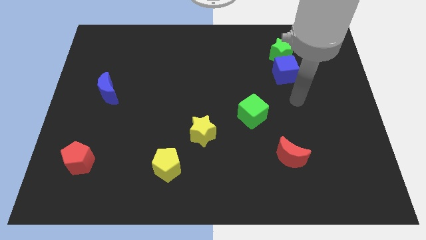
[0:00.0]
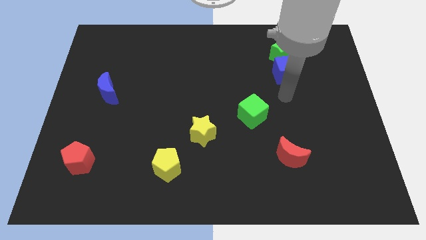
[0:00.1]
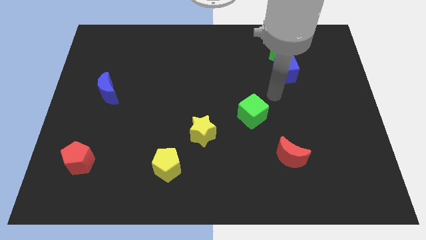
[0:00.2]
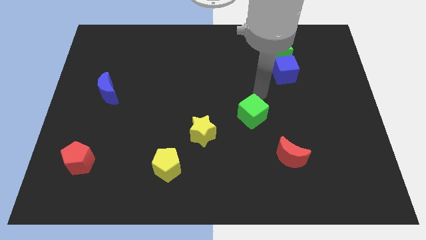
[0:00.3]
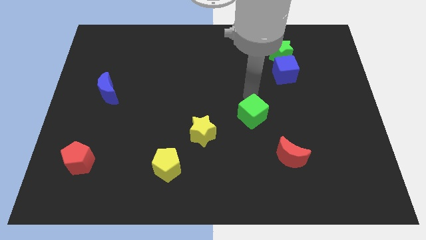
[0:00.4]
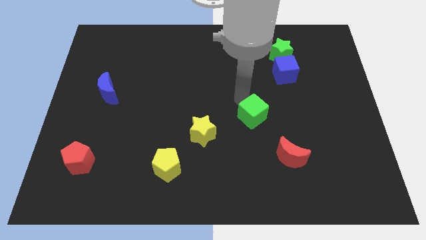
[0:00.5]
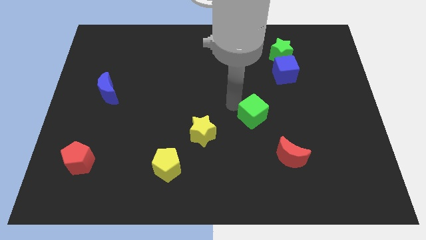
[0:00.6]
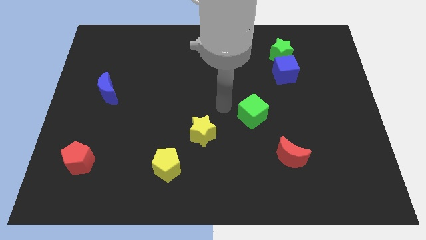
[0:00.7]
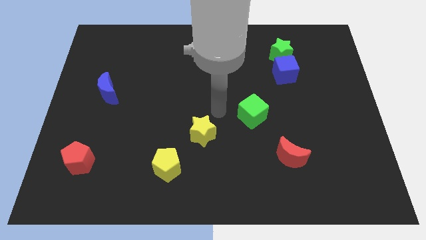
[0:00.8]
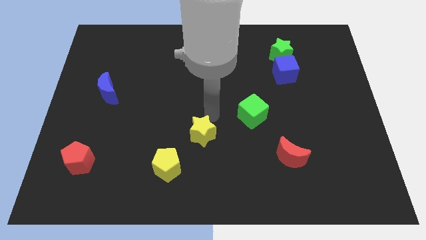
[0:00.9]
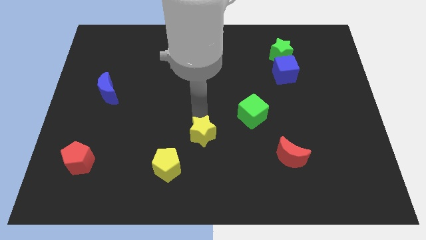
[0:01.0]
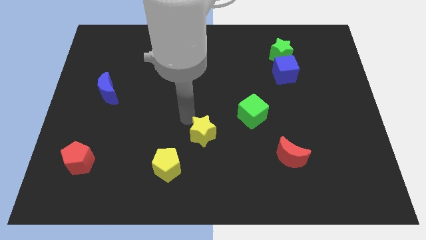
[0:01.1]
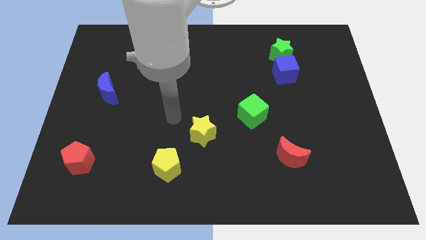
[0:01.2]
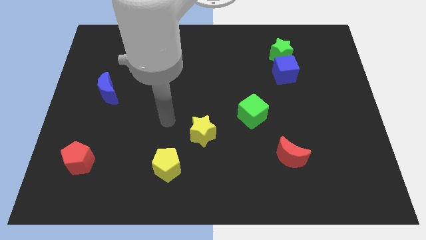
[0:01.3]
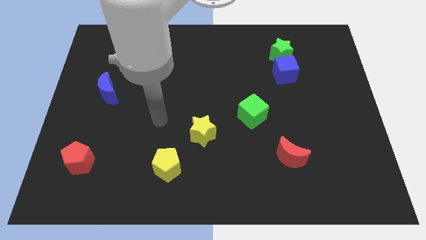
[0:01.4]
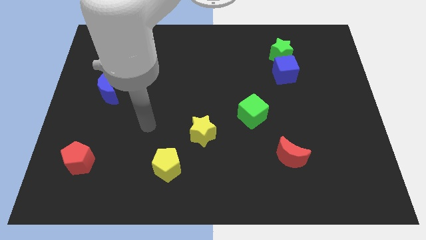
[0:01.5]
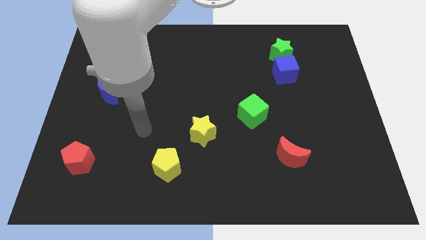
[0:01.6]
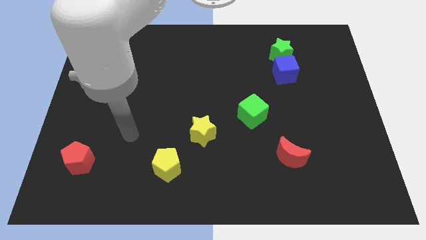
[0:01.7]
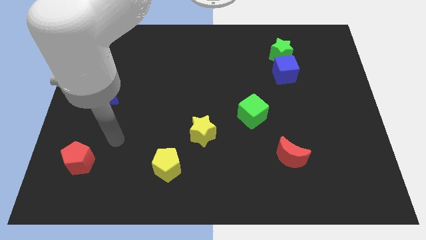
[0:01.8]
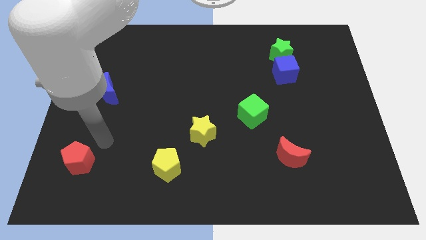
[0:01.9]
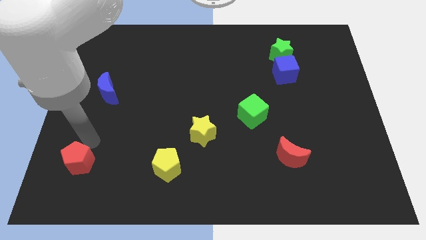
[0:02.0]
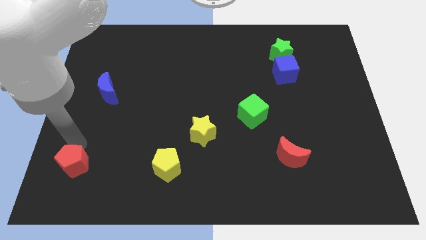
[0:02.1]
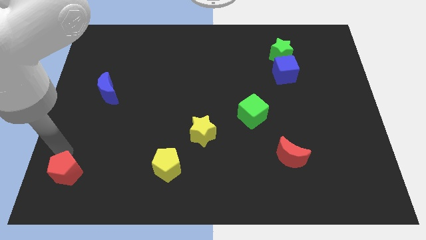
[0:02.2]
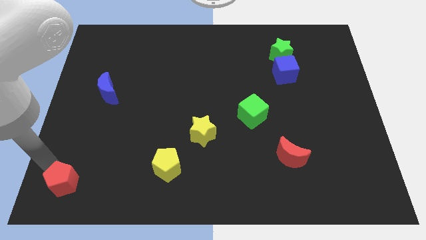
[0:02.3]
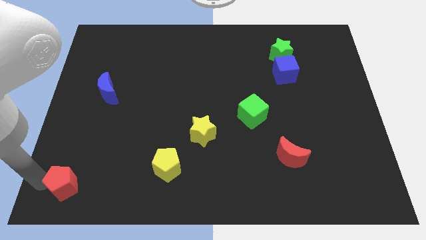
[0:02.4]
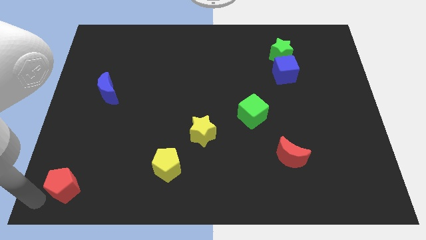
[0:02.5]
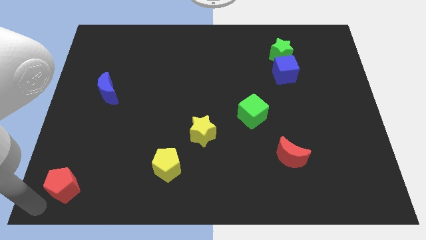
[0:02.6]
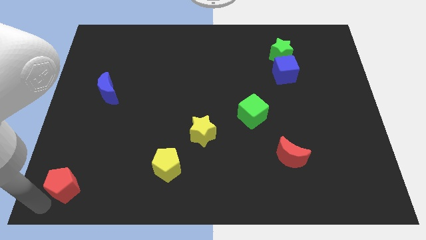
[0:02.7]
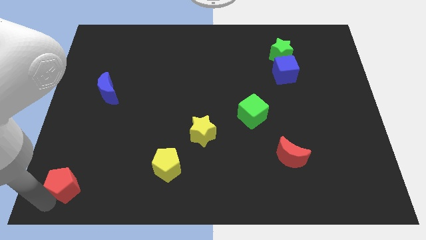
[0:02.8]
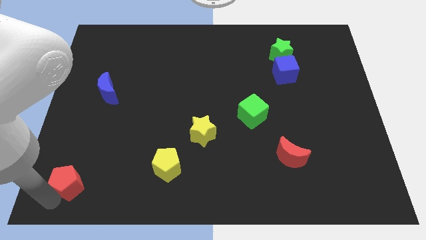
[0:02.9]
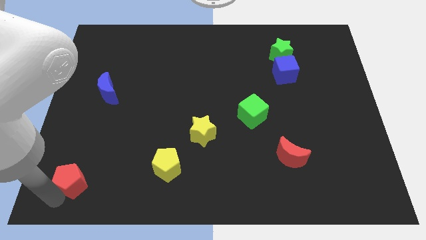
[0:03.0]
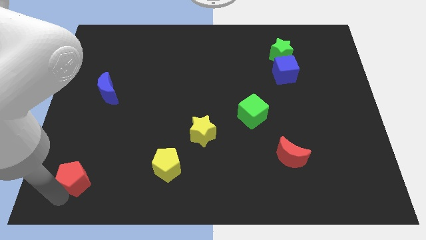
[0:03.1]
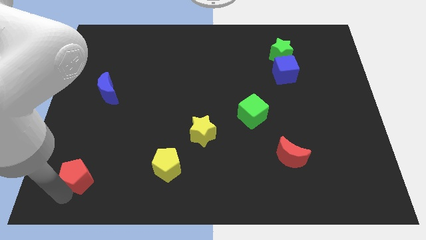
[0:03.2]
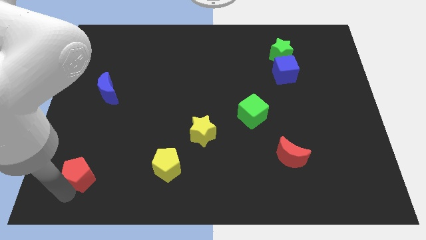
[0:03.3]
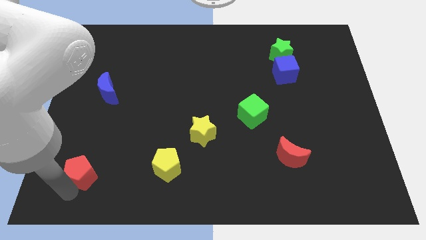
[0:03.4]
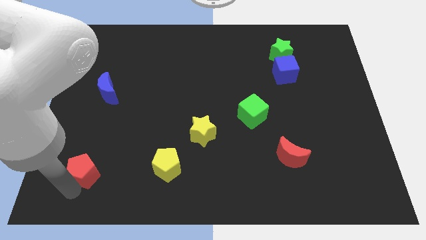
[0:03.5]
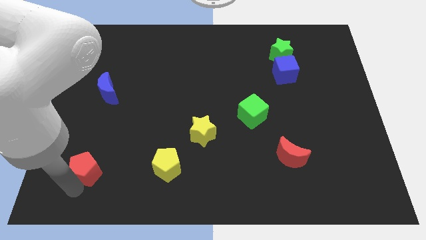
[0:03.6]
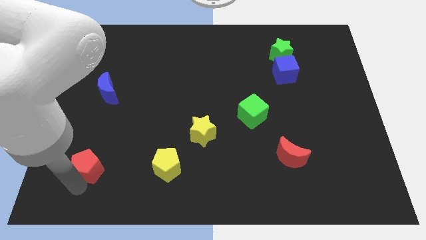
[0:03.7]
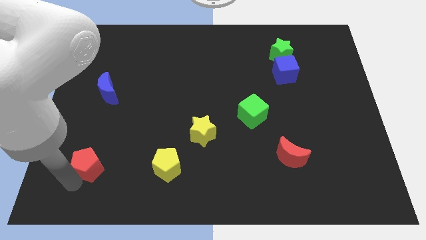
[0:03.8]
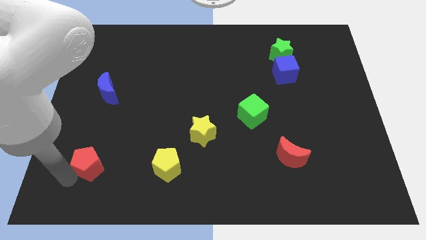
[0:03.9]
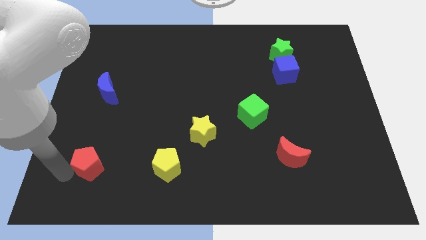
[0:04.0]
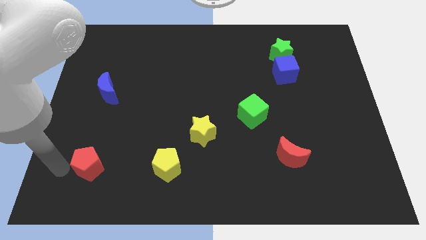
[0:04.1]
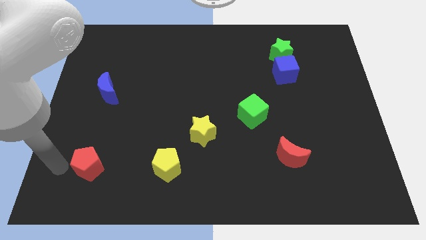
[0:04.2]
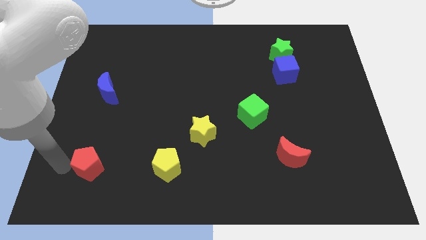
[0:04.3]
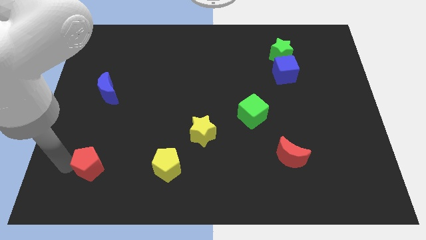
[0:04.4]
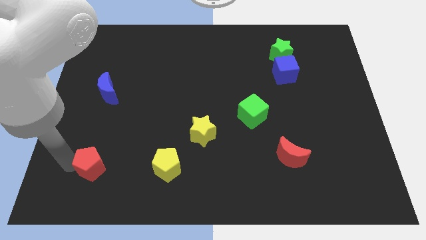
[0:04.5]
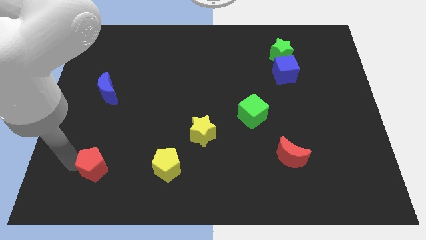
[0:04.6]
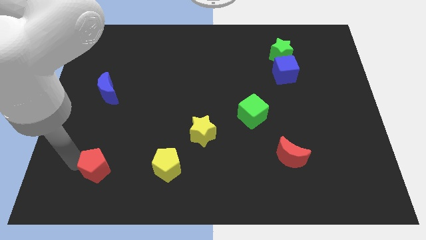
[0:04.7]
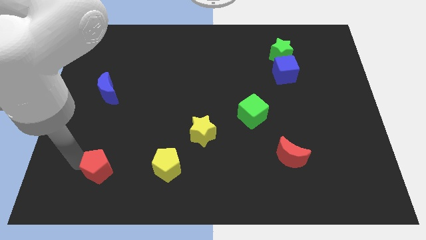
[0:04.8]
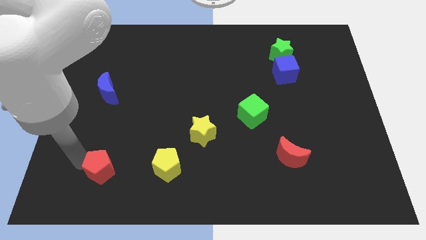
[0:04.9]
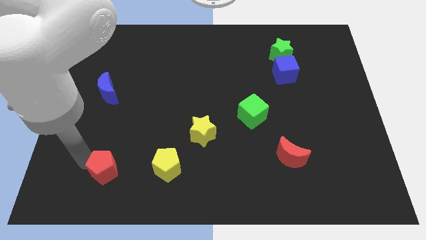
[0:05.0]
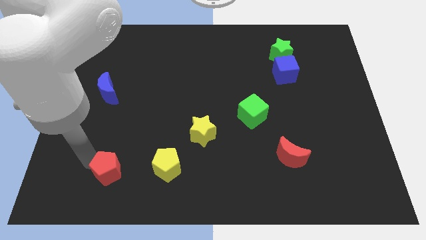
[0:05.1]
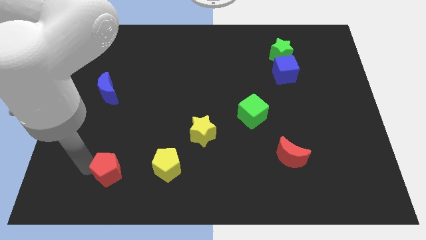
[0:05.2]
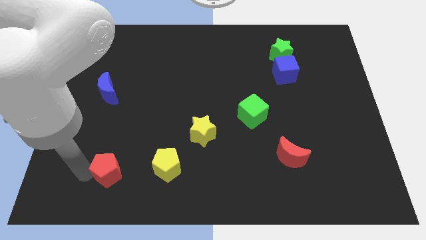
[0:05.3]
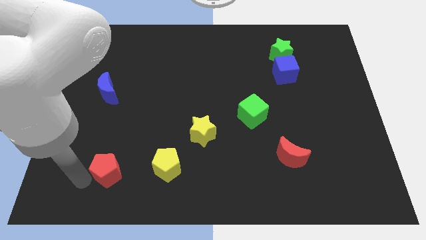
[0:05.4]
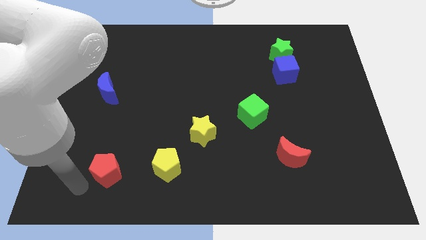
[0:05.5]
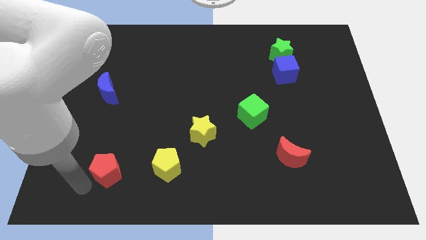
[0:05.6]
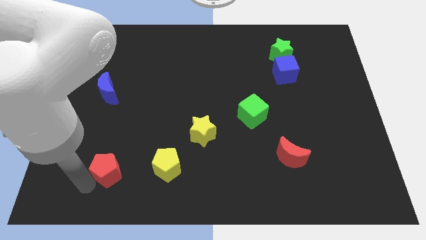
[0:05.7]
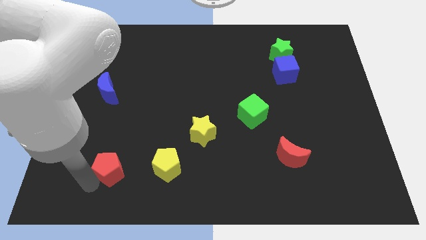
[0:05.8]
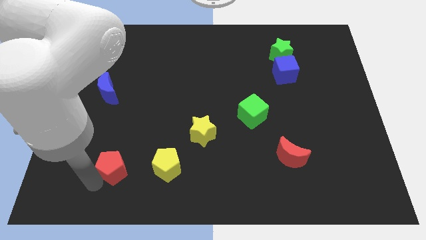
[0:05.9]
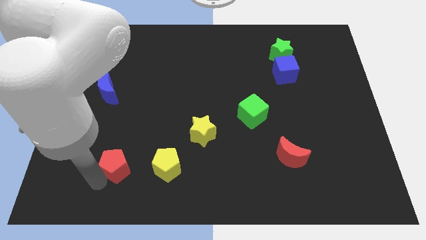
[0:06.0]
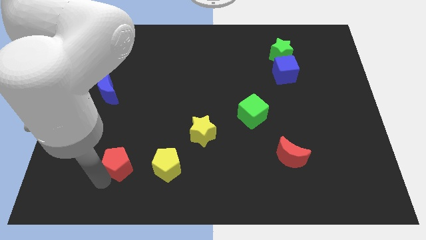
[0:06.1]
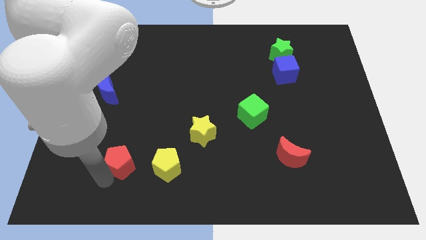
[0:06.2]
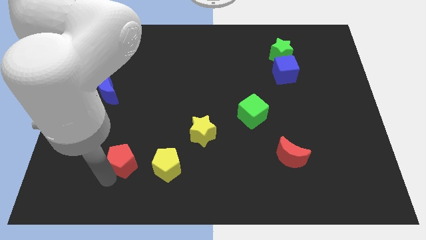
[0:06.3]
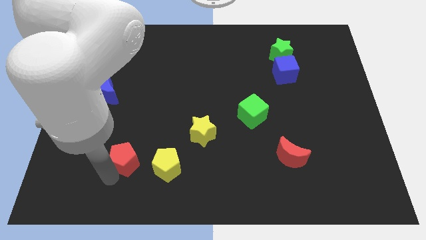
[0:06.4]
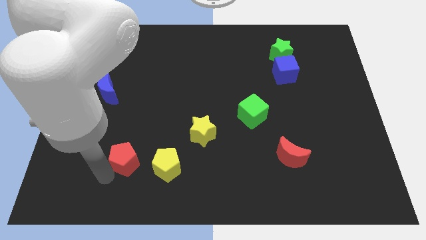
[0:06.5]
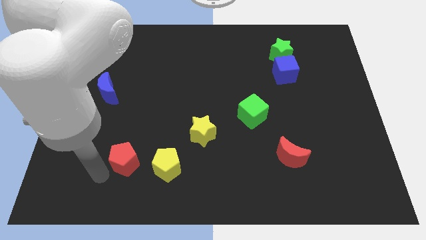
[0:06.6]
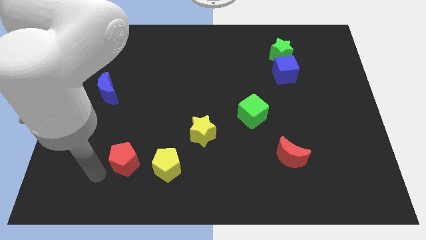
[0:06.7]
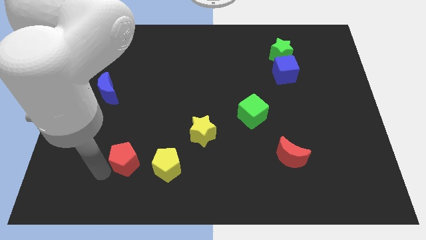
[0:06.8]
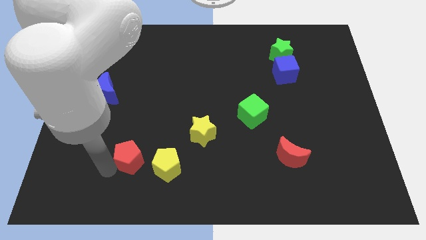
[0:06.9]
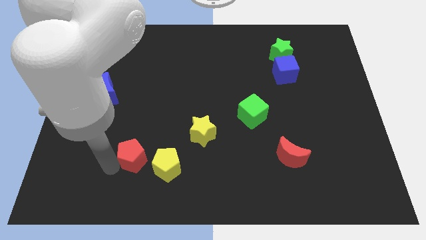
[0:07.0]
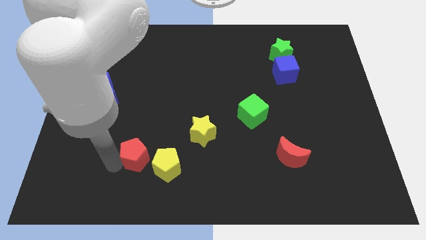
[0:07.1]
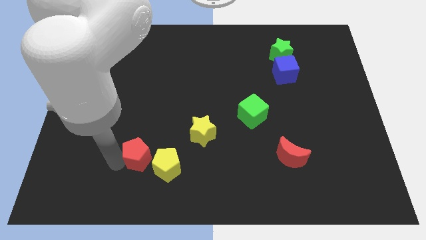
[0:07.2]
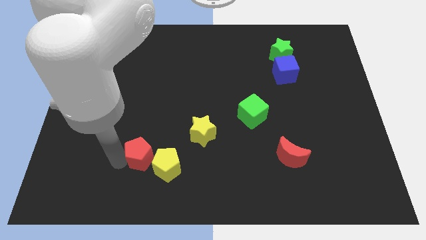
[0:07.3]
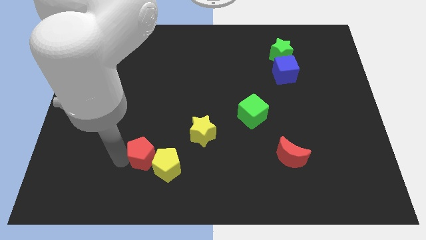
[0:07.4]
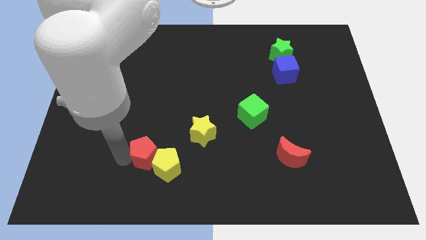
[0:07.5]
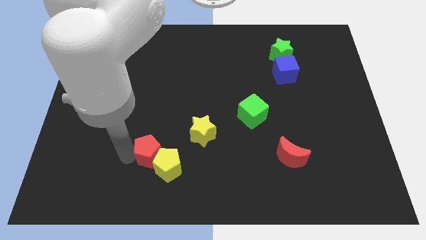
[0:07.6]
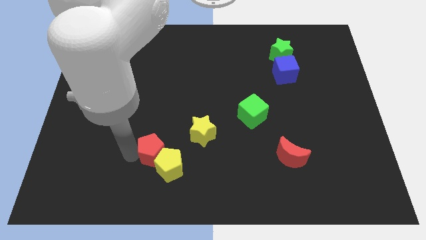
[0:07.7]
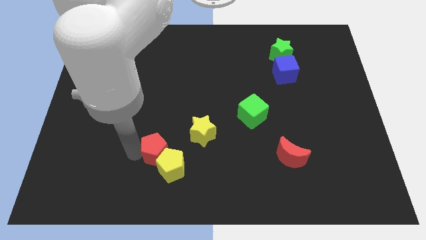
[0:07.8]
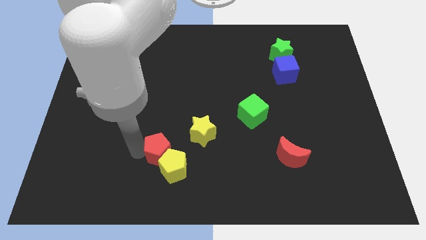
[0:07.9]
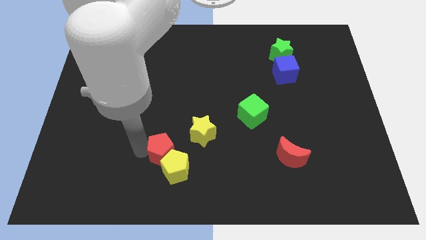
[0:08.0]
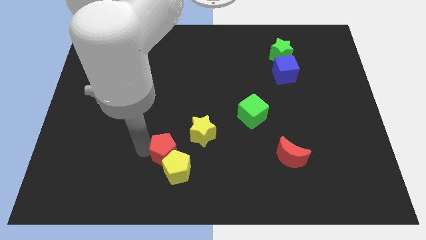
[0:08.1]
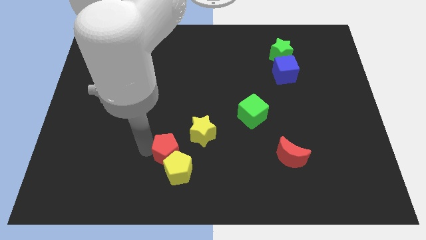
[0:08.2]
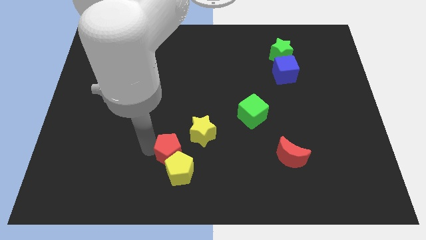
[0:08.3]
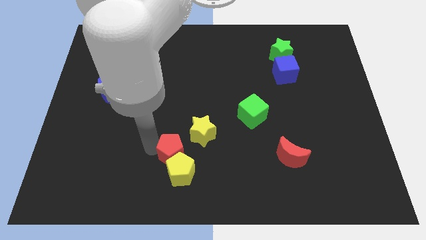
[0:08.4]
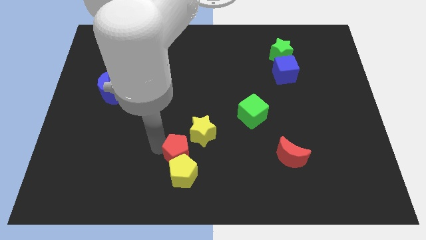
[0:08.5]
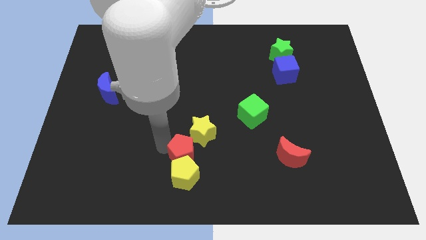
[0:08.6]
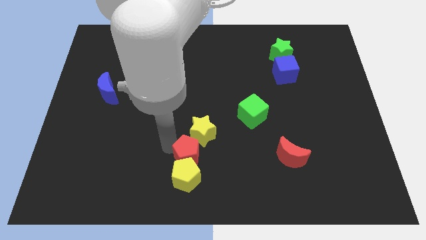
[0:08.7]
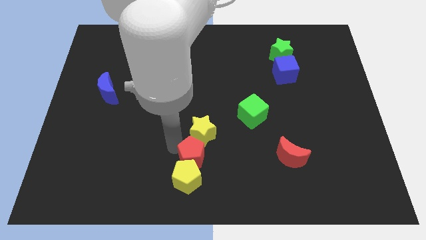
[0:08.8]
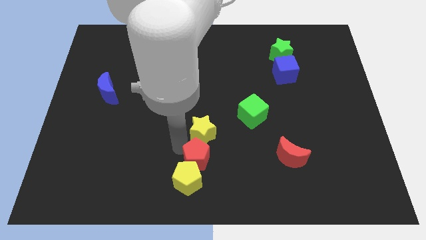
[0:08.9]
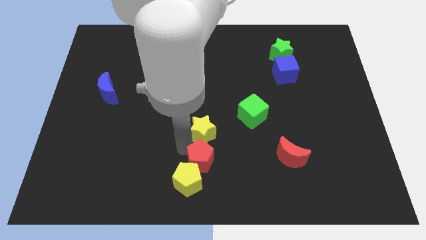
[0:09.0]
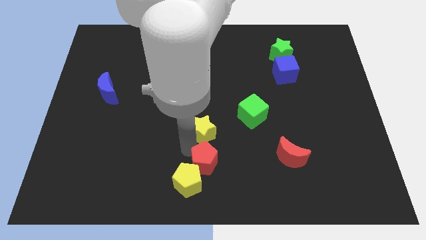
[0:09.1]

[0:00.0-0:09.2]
push the red pentagon just right of the yellow pentagon
